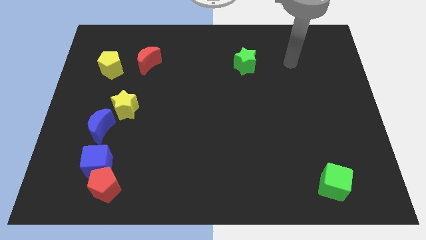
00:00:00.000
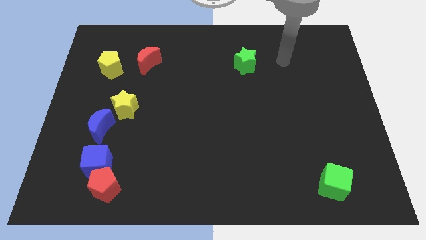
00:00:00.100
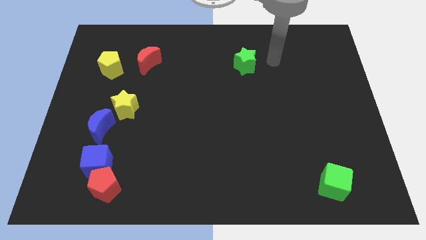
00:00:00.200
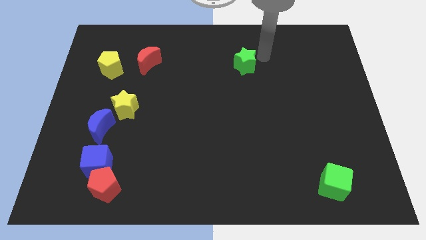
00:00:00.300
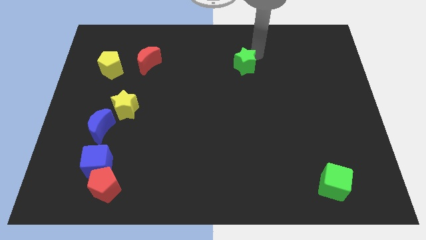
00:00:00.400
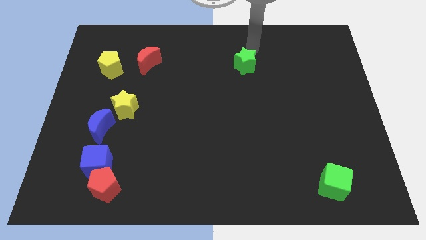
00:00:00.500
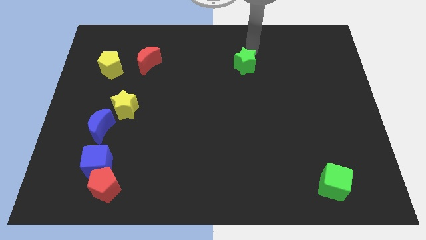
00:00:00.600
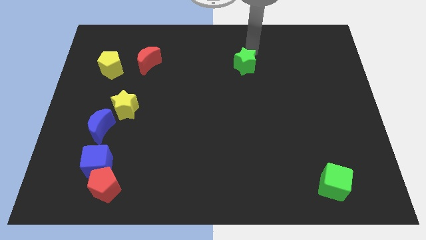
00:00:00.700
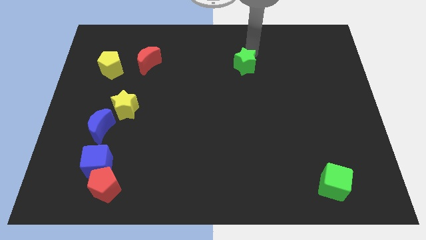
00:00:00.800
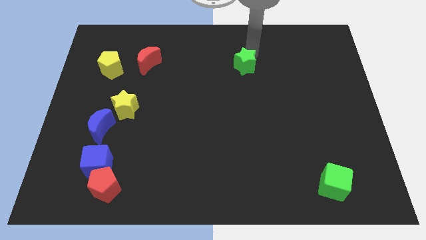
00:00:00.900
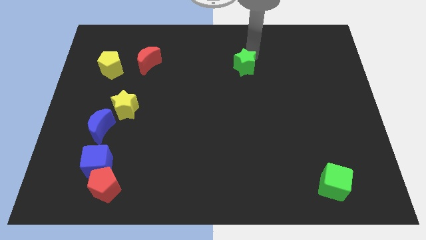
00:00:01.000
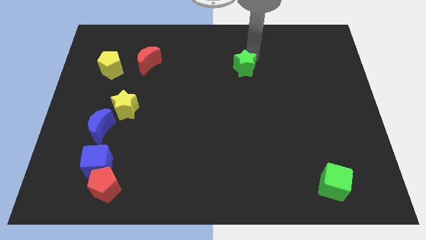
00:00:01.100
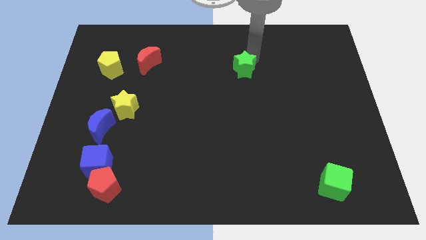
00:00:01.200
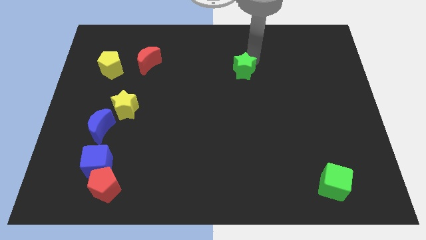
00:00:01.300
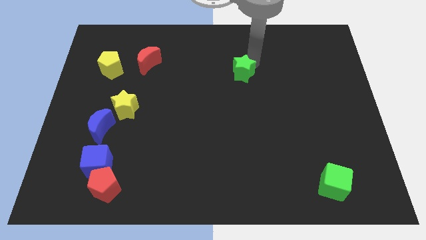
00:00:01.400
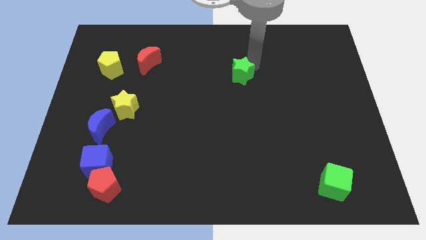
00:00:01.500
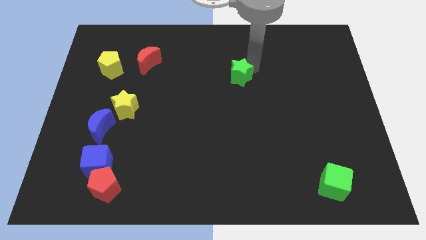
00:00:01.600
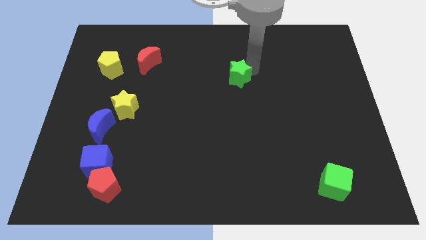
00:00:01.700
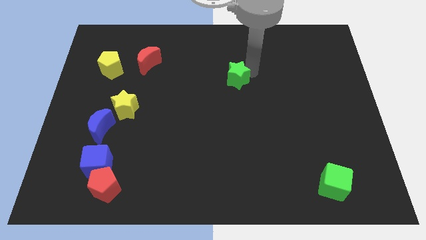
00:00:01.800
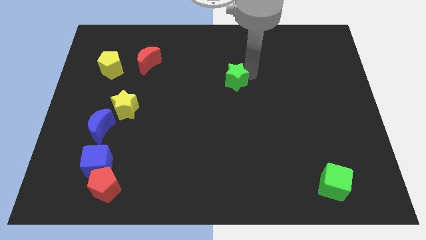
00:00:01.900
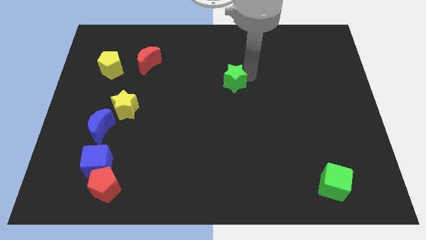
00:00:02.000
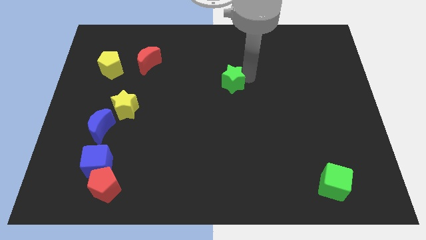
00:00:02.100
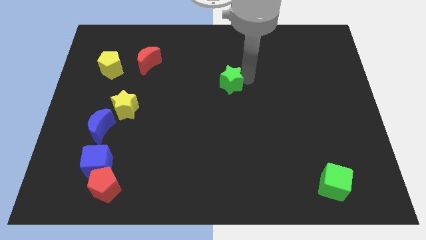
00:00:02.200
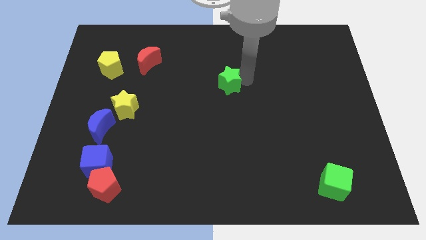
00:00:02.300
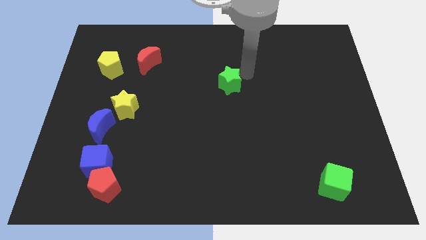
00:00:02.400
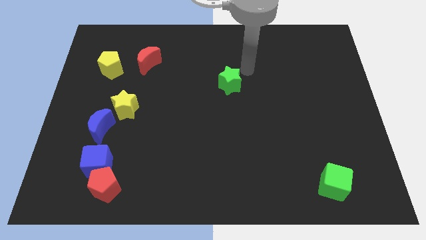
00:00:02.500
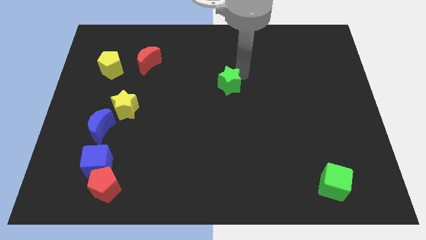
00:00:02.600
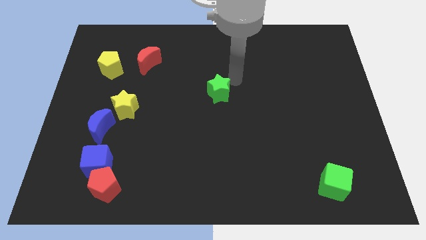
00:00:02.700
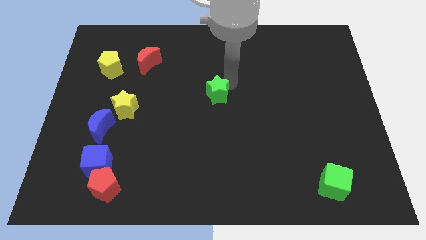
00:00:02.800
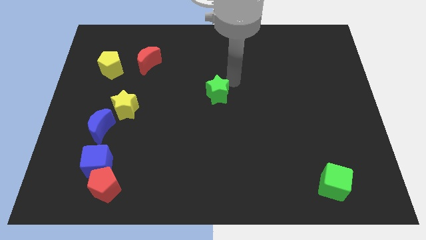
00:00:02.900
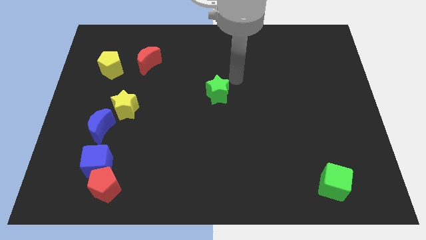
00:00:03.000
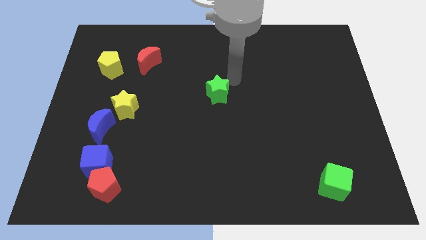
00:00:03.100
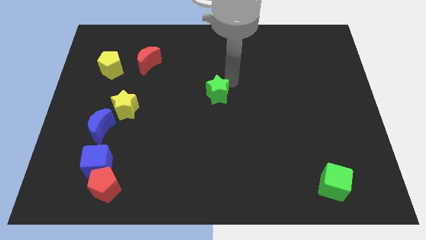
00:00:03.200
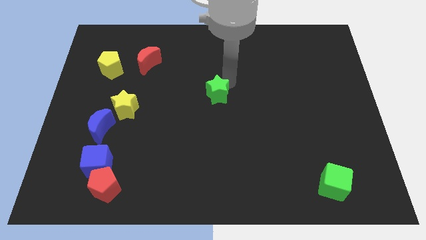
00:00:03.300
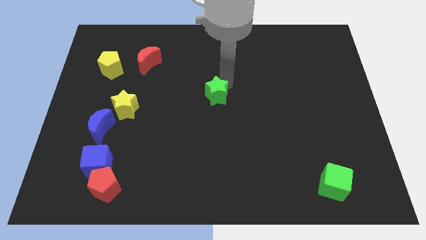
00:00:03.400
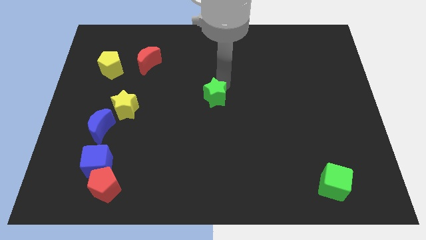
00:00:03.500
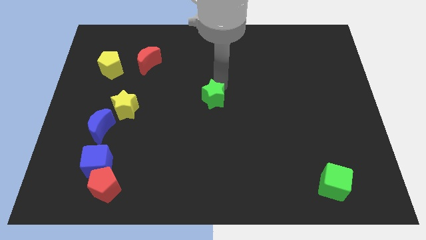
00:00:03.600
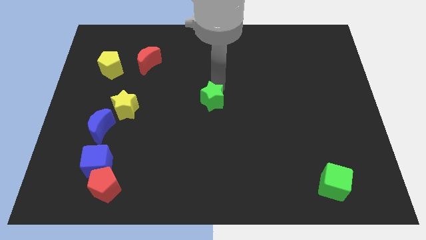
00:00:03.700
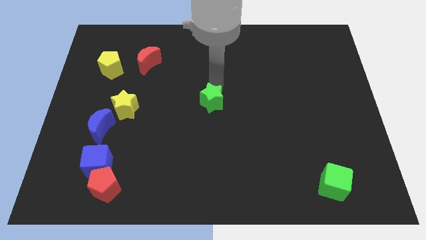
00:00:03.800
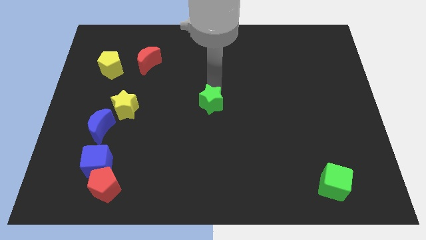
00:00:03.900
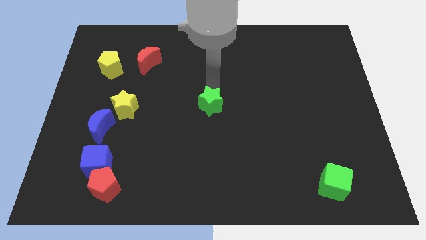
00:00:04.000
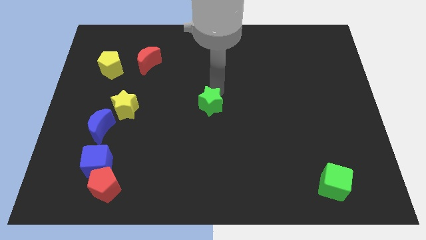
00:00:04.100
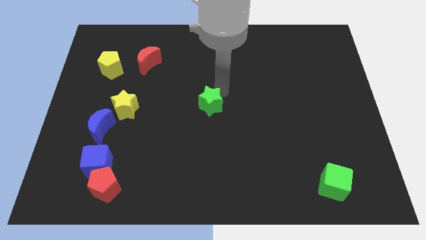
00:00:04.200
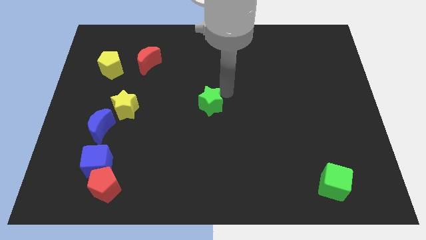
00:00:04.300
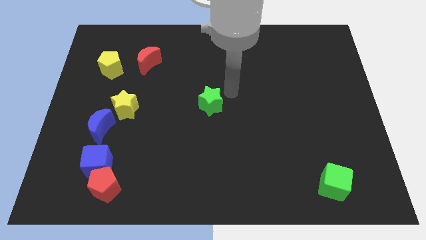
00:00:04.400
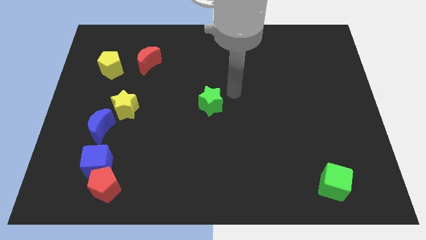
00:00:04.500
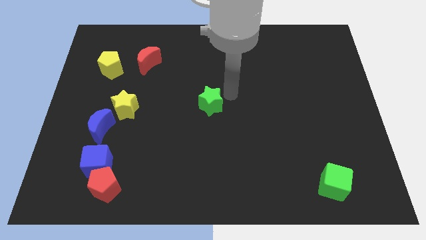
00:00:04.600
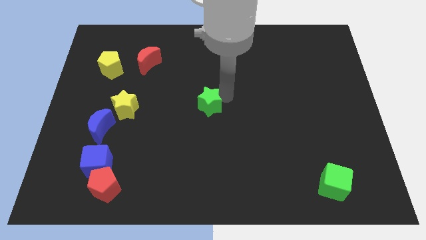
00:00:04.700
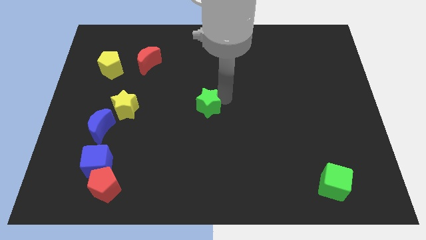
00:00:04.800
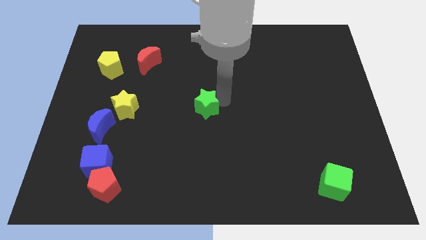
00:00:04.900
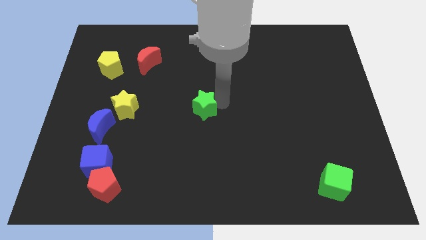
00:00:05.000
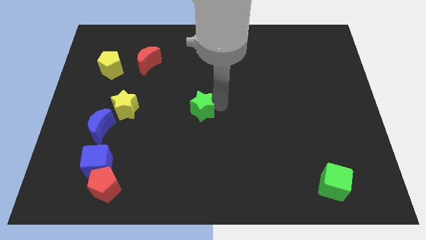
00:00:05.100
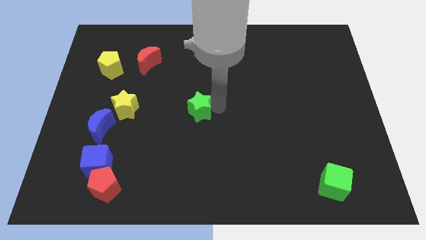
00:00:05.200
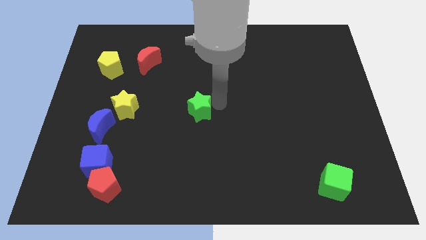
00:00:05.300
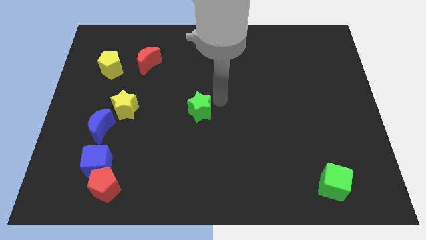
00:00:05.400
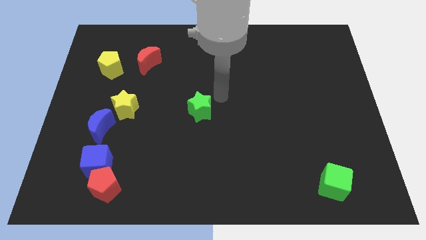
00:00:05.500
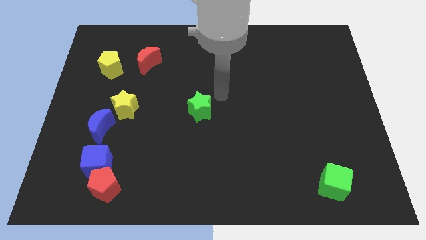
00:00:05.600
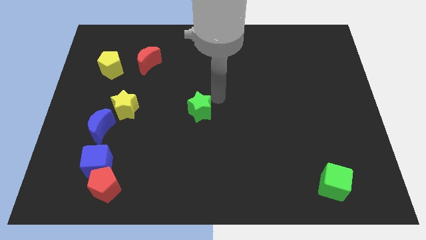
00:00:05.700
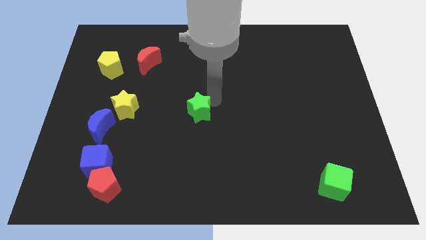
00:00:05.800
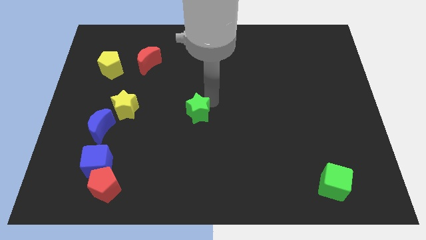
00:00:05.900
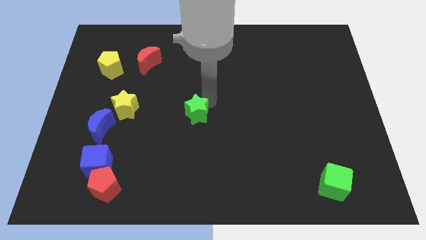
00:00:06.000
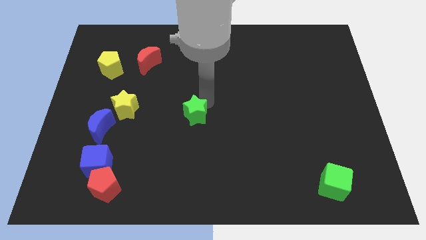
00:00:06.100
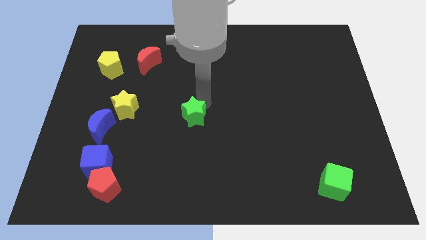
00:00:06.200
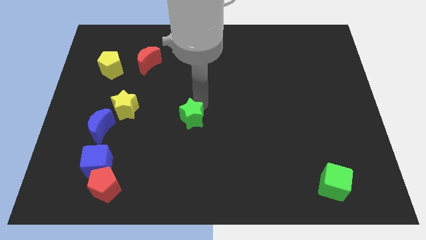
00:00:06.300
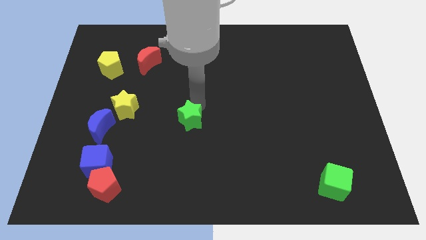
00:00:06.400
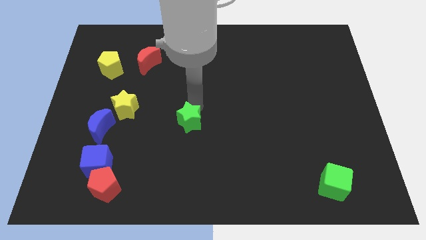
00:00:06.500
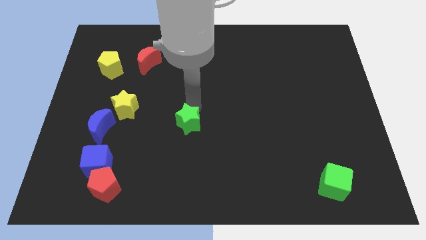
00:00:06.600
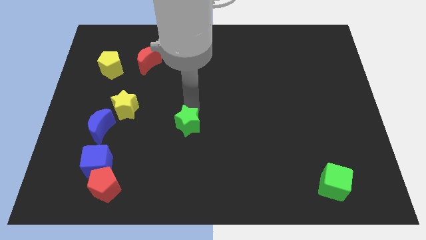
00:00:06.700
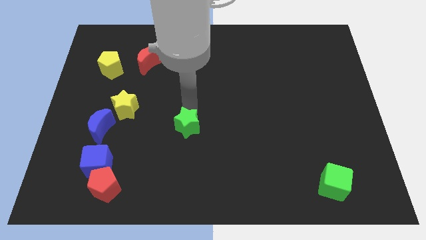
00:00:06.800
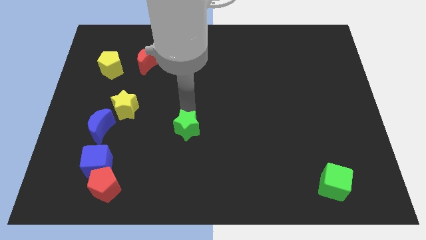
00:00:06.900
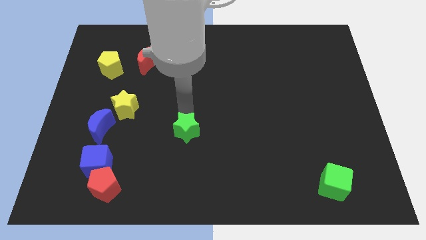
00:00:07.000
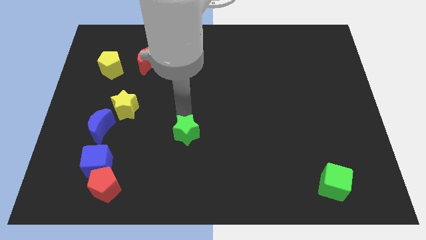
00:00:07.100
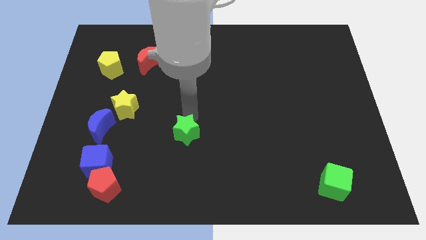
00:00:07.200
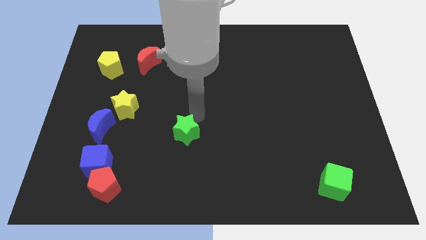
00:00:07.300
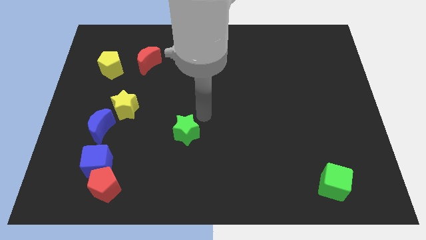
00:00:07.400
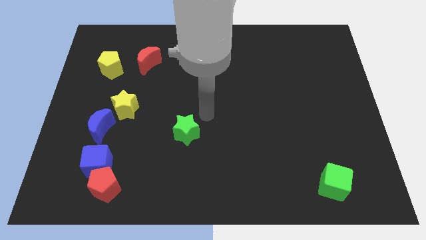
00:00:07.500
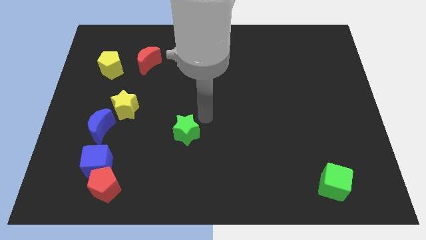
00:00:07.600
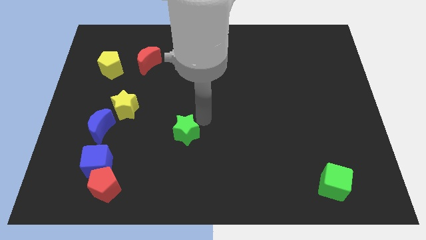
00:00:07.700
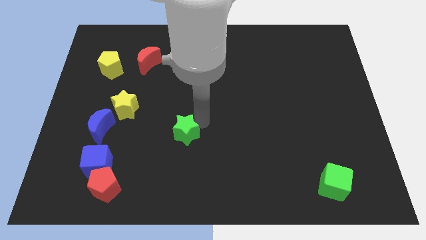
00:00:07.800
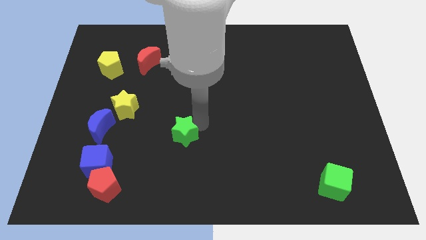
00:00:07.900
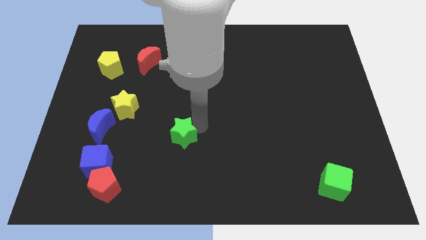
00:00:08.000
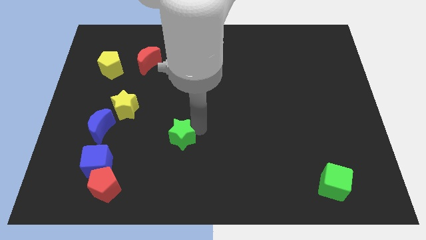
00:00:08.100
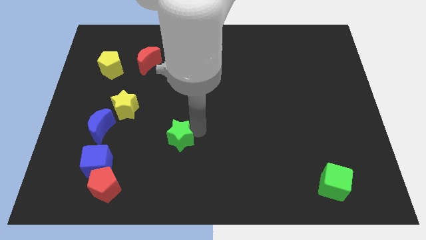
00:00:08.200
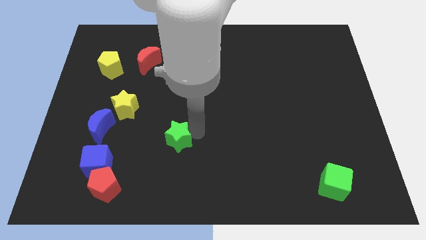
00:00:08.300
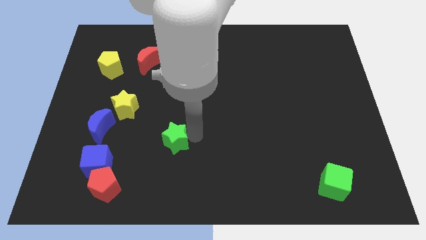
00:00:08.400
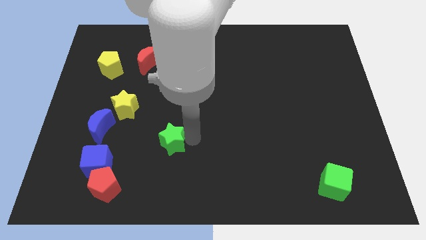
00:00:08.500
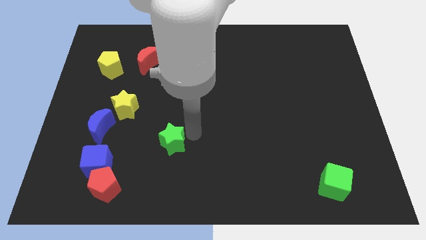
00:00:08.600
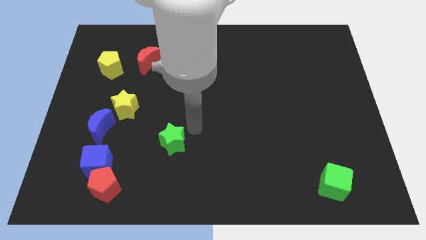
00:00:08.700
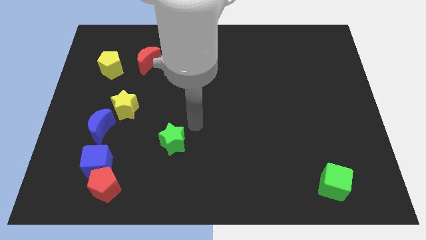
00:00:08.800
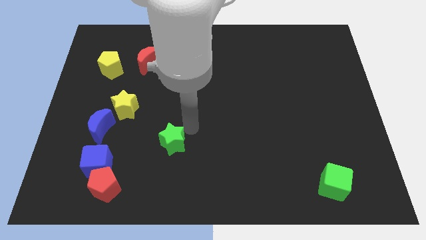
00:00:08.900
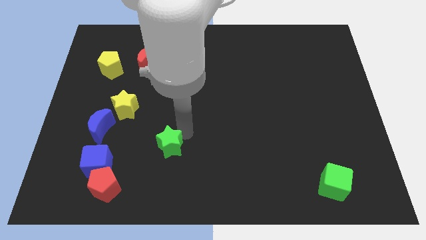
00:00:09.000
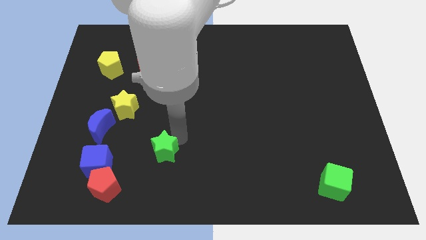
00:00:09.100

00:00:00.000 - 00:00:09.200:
push the green star to the right side of the blue cube
